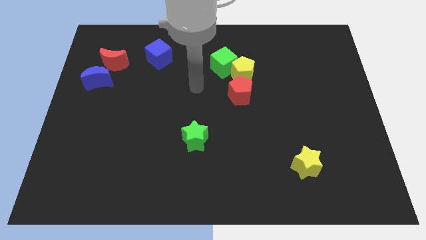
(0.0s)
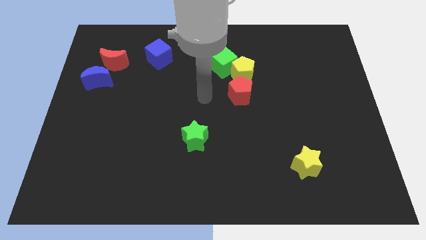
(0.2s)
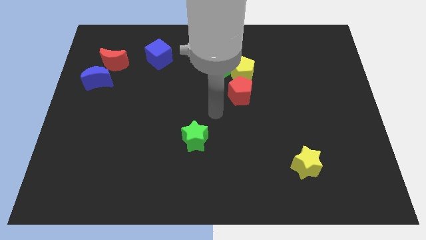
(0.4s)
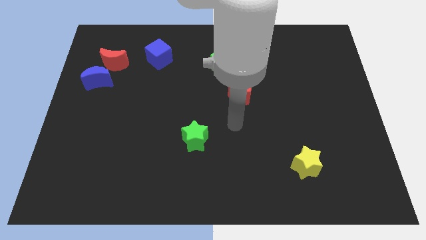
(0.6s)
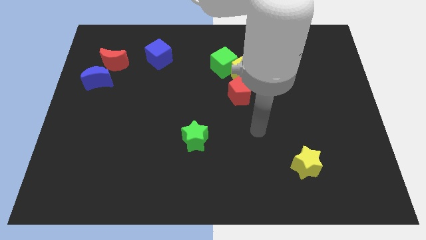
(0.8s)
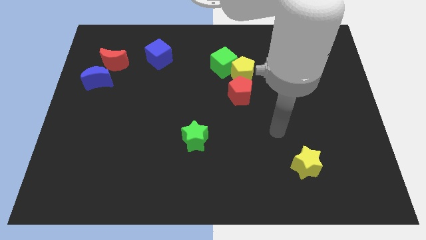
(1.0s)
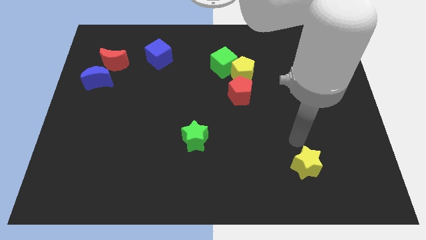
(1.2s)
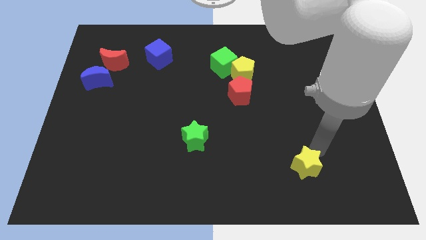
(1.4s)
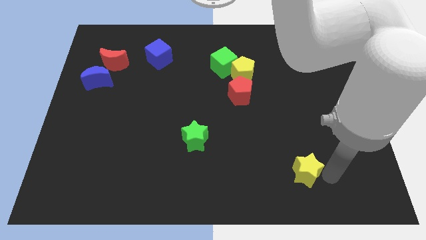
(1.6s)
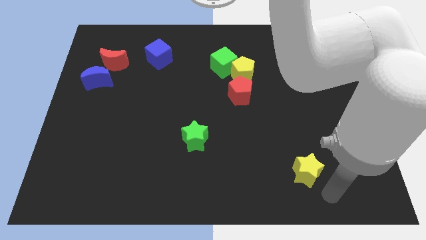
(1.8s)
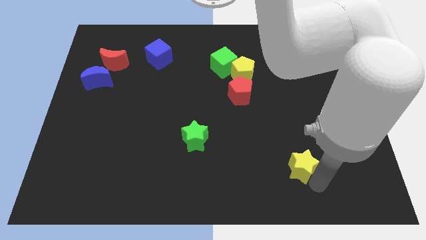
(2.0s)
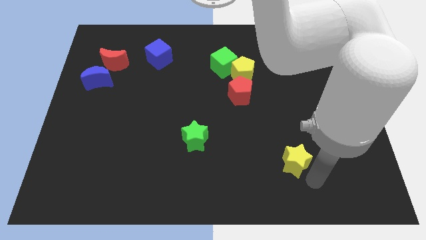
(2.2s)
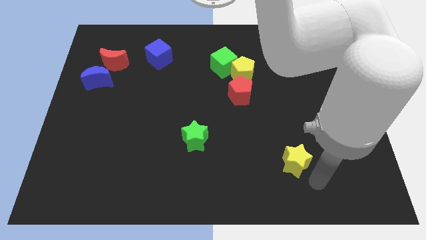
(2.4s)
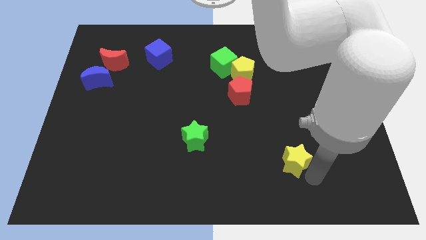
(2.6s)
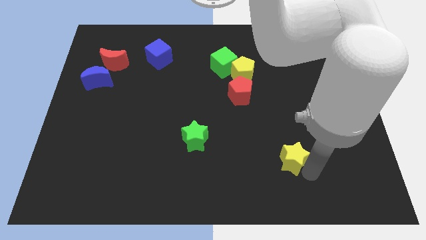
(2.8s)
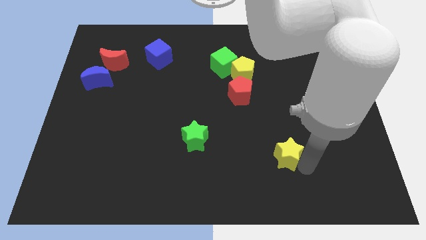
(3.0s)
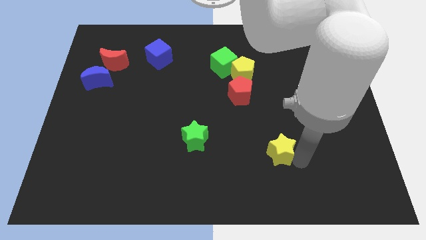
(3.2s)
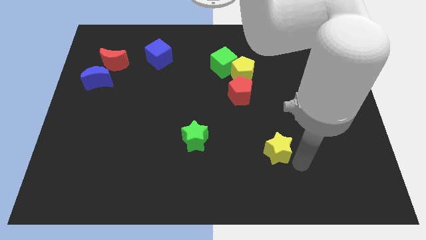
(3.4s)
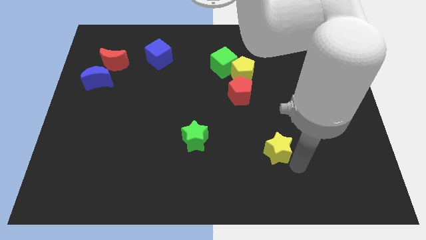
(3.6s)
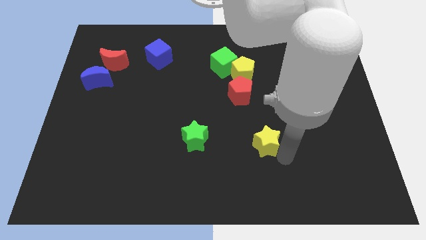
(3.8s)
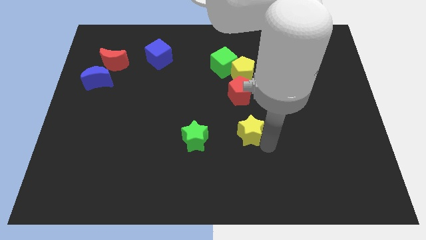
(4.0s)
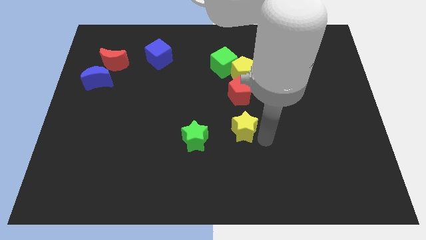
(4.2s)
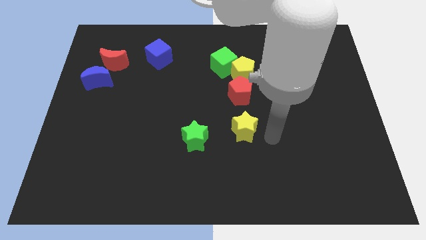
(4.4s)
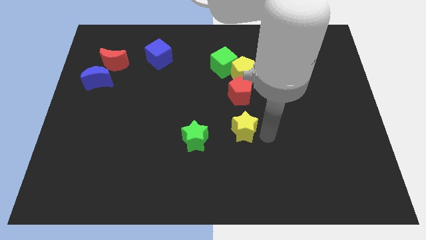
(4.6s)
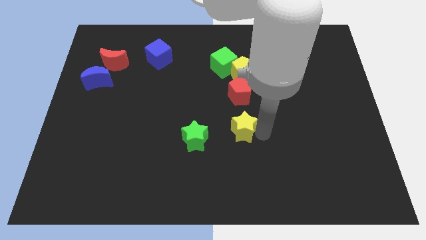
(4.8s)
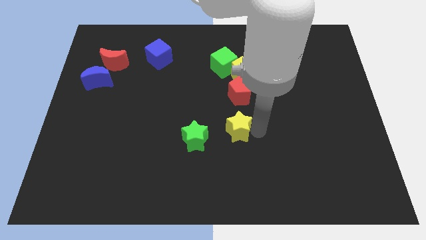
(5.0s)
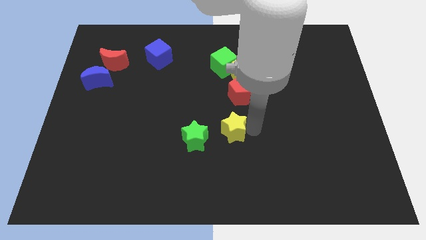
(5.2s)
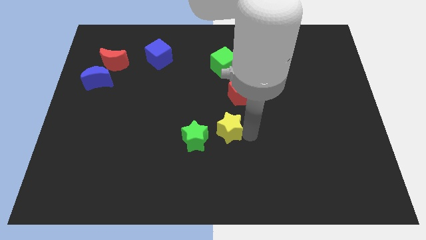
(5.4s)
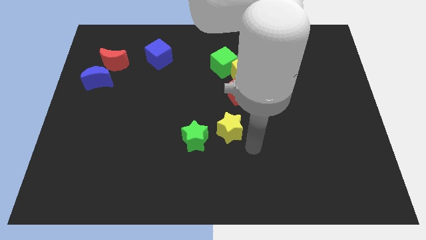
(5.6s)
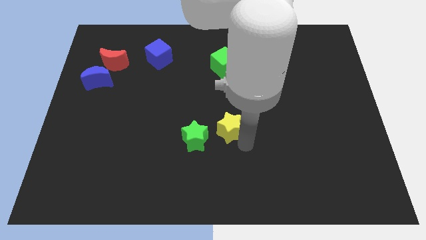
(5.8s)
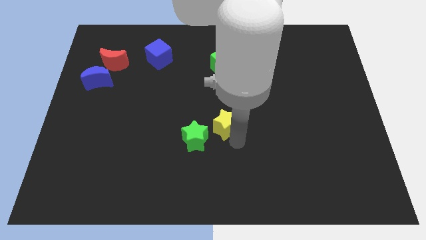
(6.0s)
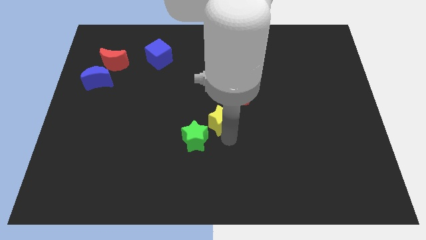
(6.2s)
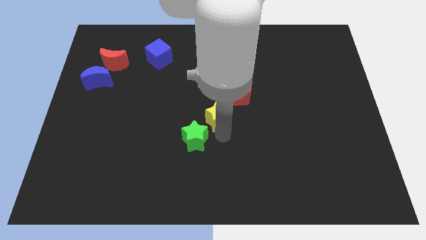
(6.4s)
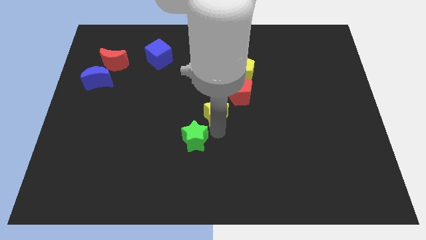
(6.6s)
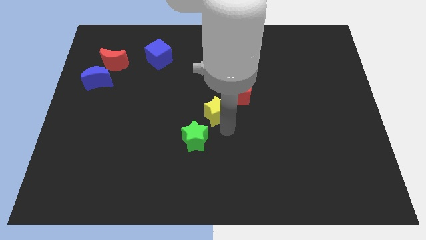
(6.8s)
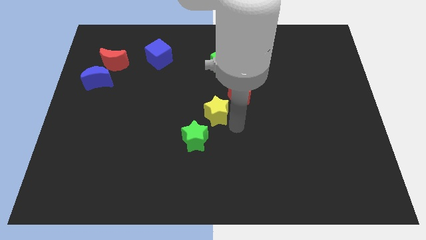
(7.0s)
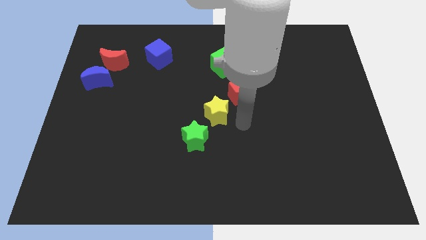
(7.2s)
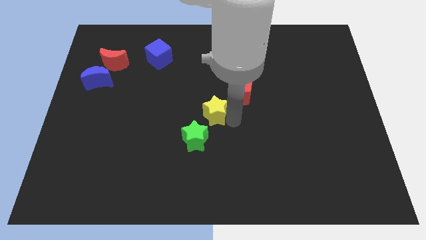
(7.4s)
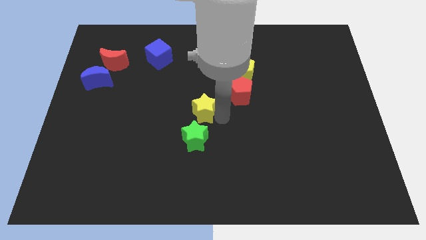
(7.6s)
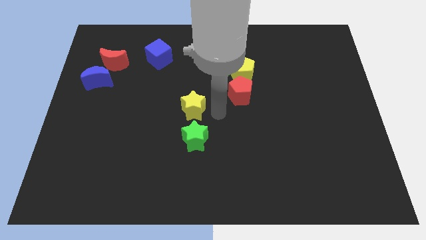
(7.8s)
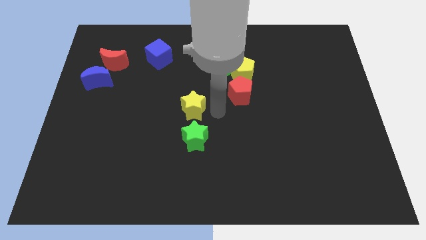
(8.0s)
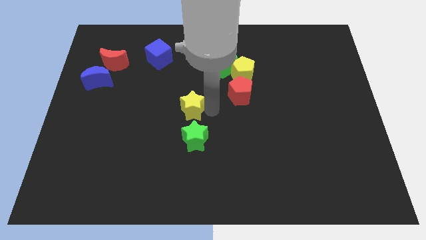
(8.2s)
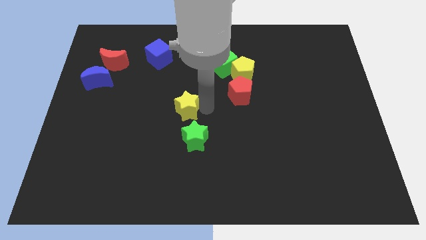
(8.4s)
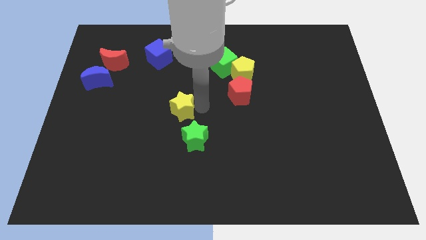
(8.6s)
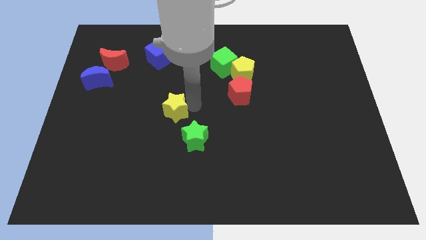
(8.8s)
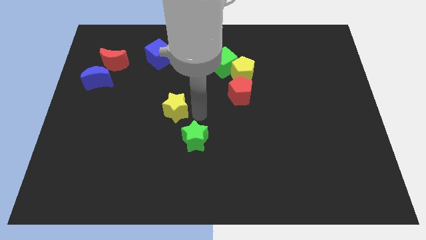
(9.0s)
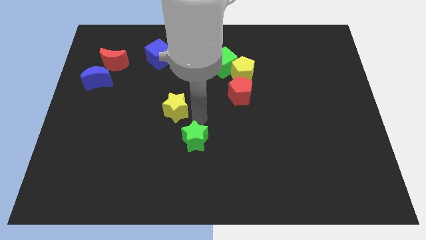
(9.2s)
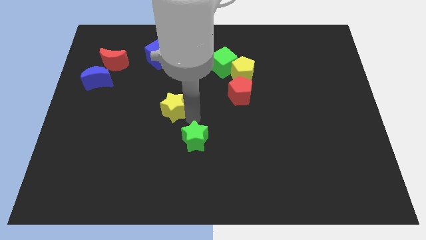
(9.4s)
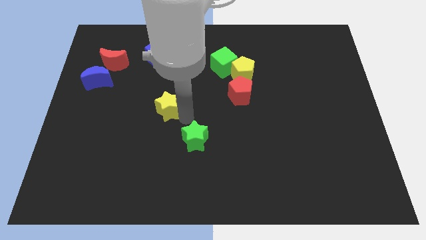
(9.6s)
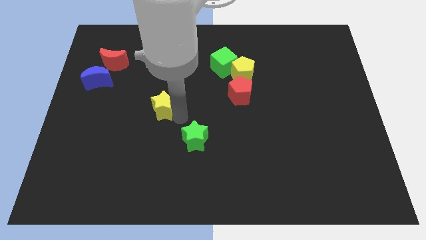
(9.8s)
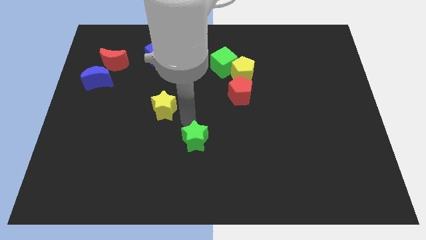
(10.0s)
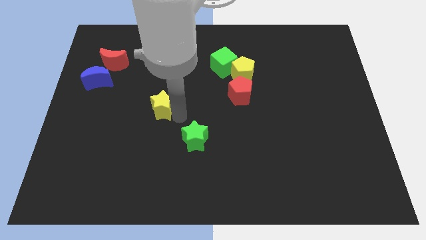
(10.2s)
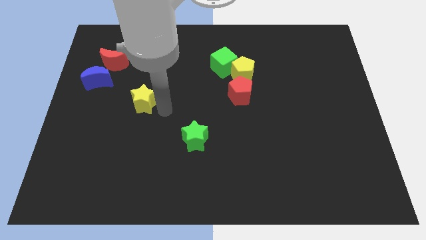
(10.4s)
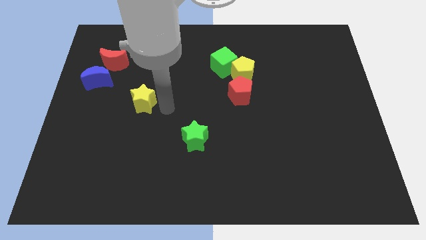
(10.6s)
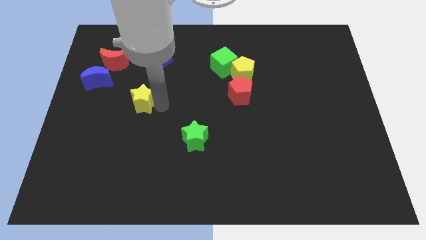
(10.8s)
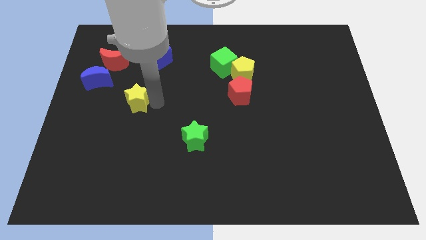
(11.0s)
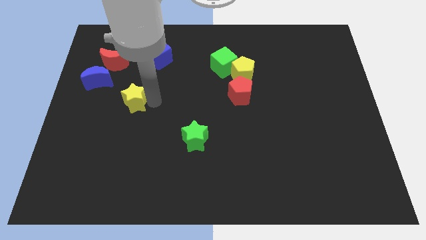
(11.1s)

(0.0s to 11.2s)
move the yellow star to the bottom right side of the blue moon

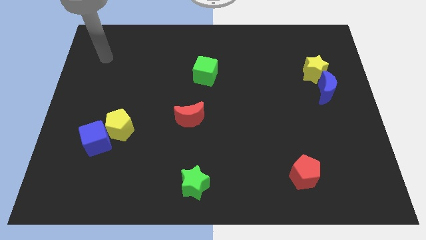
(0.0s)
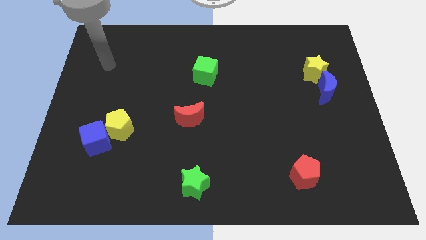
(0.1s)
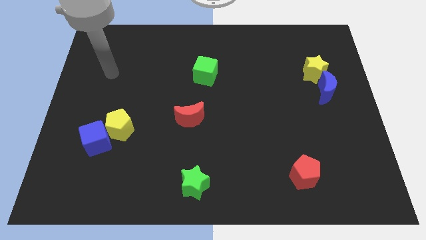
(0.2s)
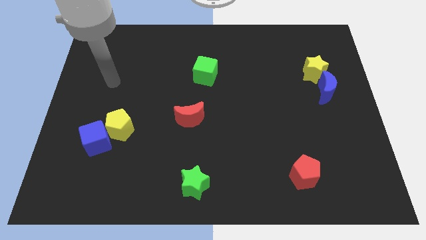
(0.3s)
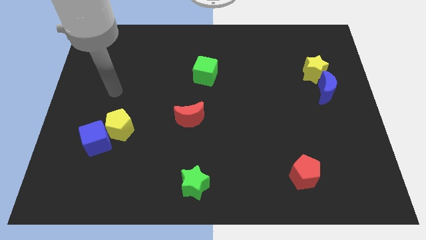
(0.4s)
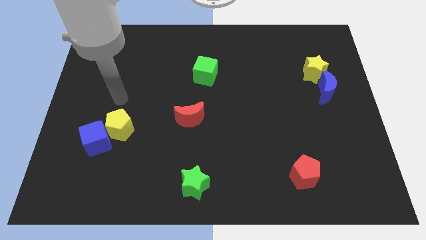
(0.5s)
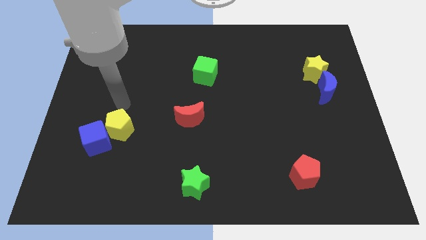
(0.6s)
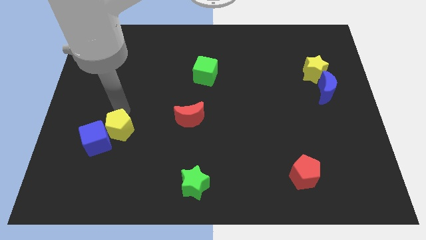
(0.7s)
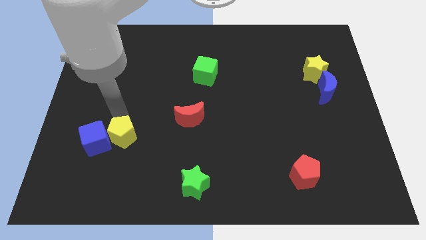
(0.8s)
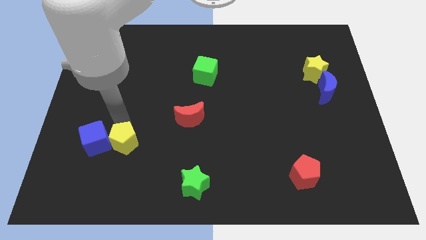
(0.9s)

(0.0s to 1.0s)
move the yellow pentagon to the bottom right of the blue cube
